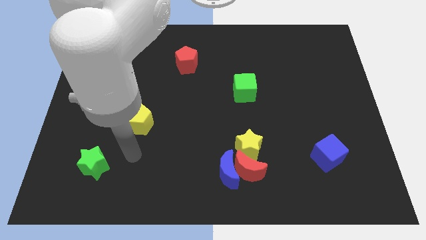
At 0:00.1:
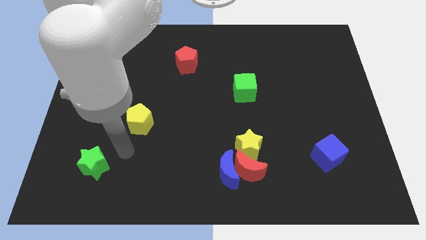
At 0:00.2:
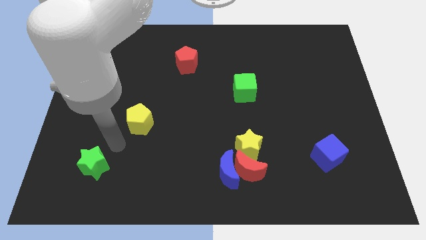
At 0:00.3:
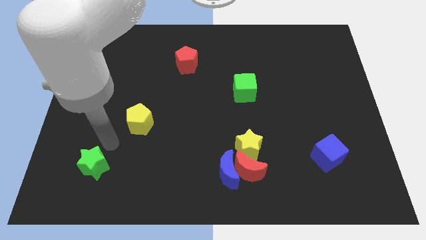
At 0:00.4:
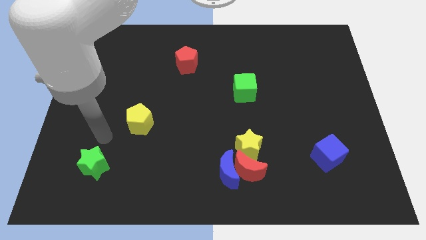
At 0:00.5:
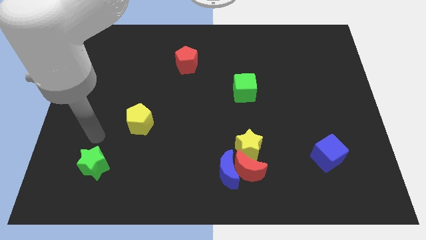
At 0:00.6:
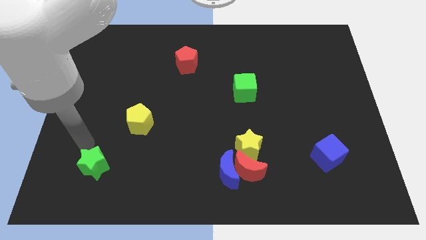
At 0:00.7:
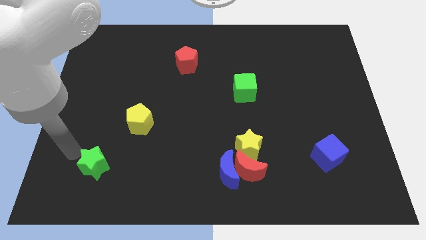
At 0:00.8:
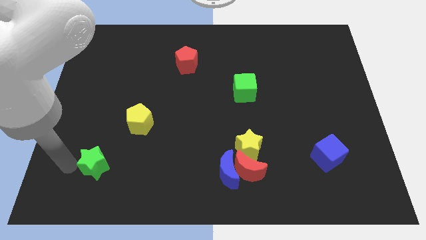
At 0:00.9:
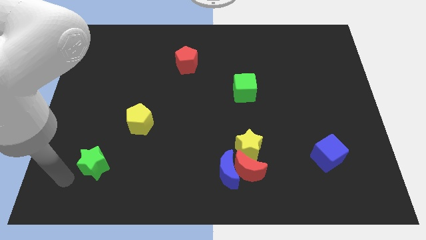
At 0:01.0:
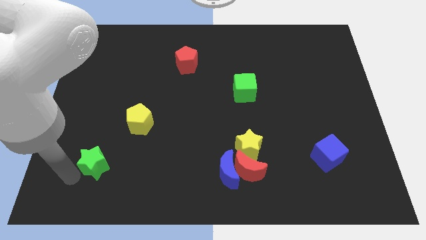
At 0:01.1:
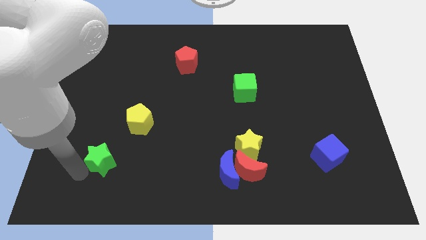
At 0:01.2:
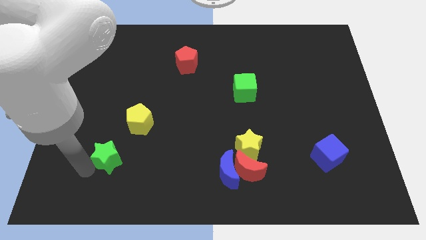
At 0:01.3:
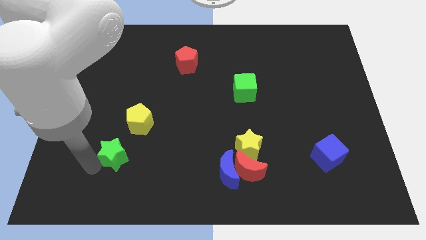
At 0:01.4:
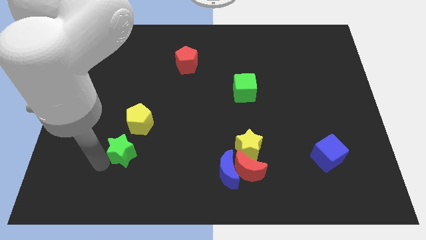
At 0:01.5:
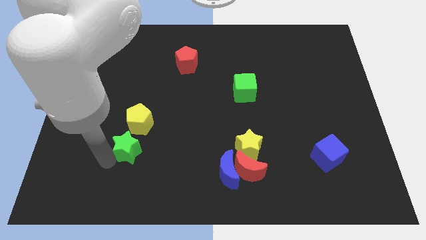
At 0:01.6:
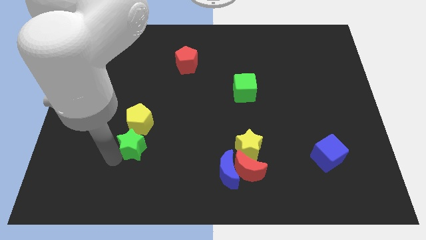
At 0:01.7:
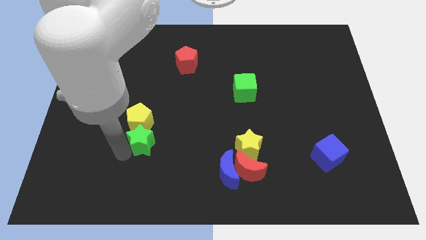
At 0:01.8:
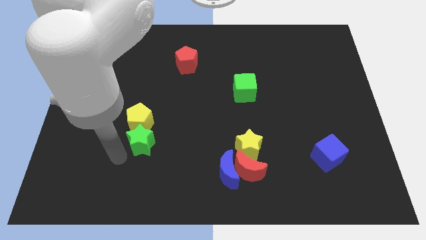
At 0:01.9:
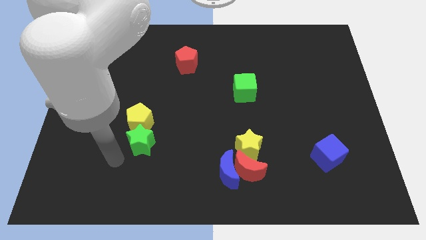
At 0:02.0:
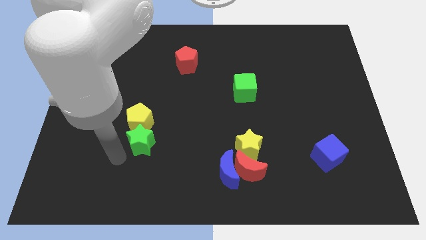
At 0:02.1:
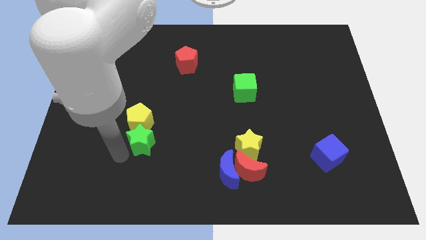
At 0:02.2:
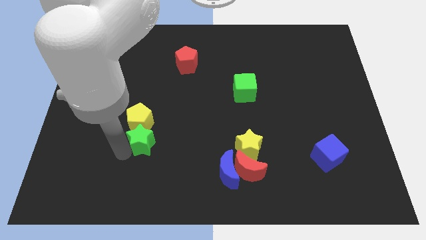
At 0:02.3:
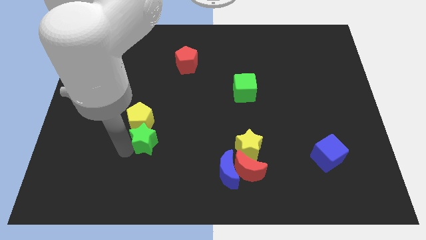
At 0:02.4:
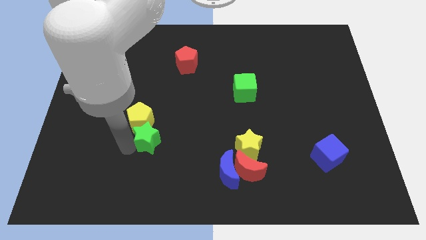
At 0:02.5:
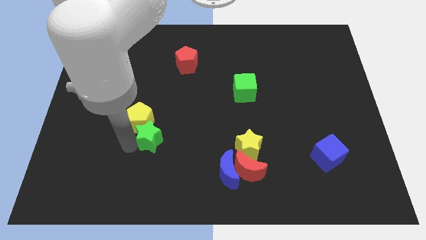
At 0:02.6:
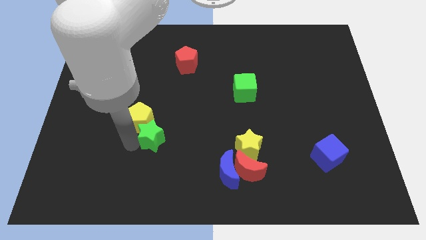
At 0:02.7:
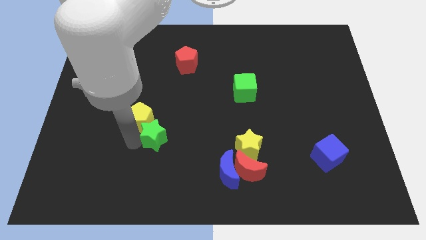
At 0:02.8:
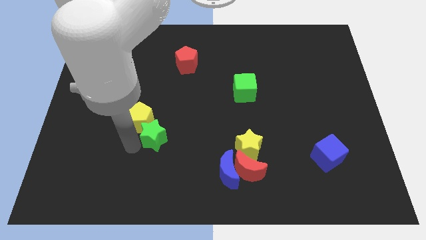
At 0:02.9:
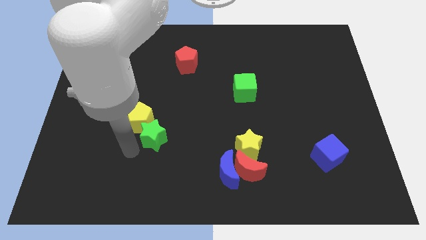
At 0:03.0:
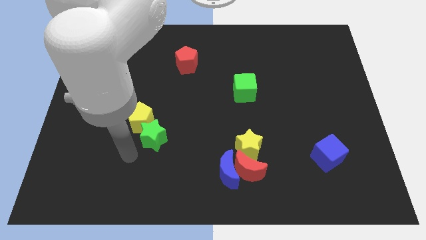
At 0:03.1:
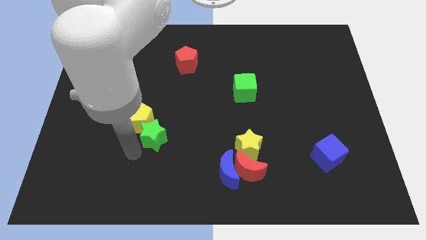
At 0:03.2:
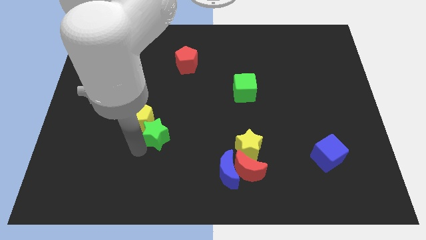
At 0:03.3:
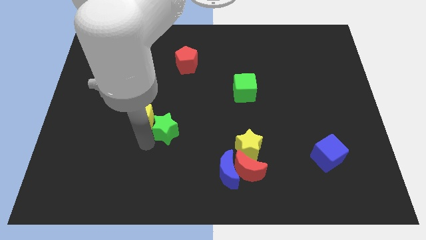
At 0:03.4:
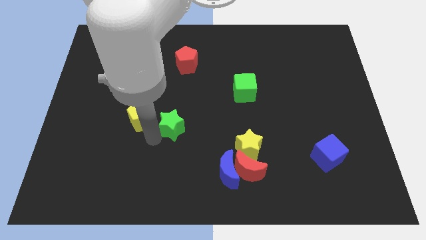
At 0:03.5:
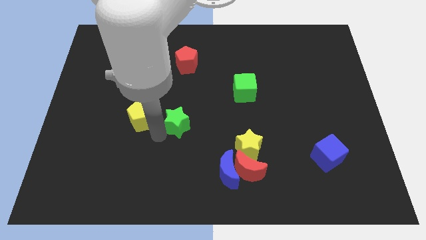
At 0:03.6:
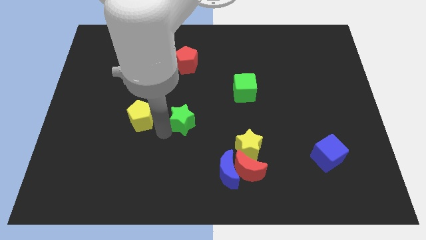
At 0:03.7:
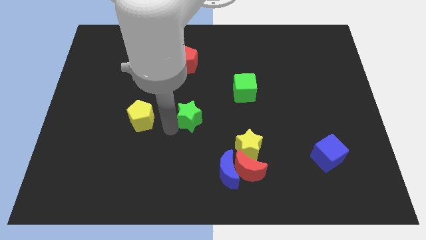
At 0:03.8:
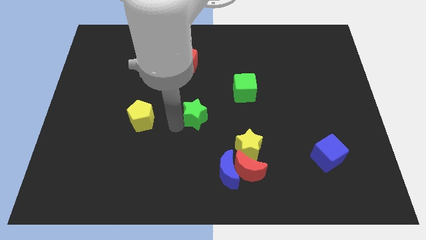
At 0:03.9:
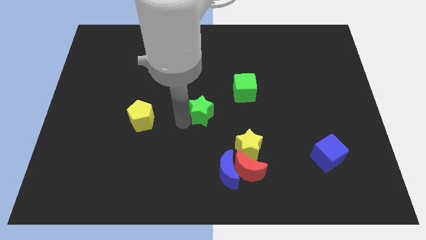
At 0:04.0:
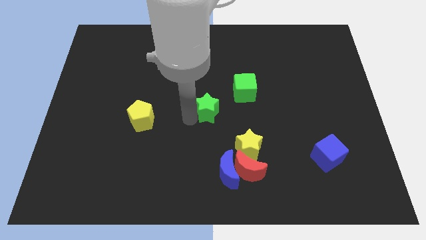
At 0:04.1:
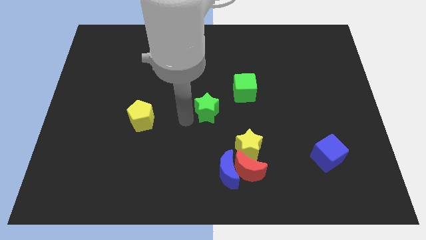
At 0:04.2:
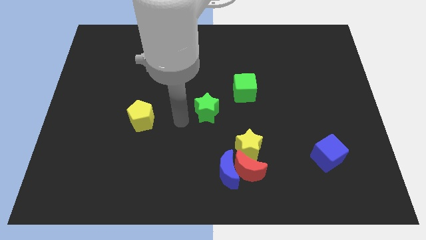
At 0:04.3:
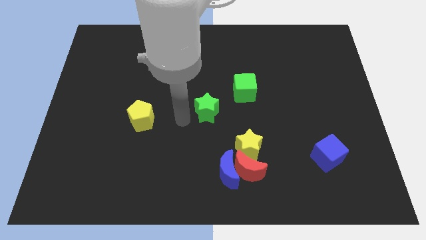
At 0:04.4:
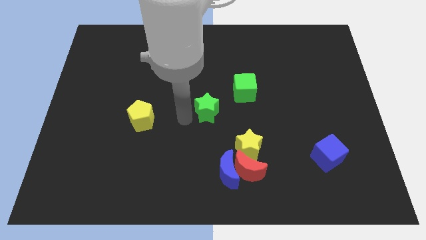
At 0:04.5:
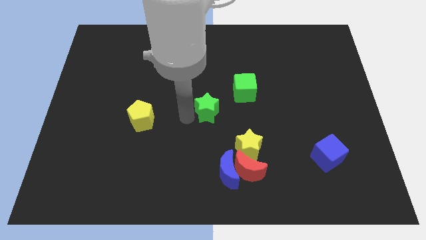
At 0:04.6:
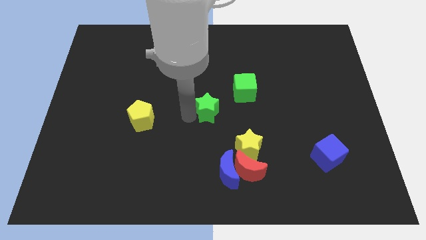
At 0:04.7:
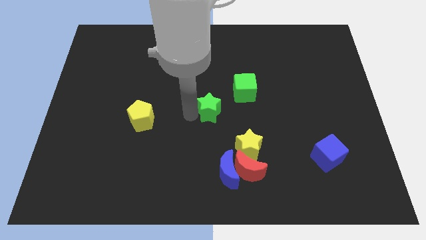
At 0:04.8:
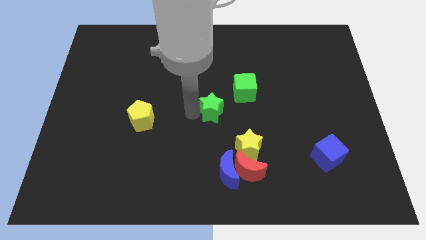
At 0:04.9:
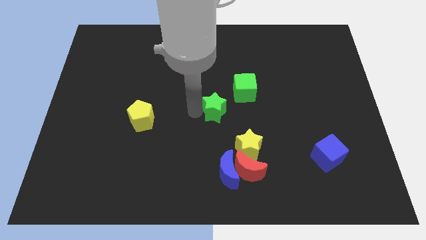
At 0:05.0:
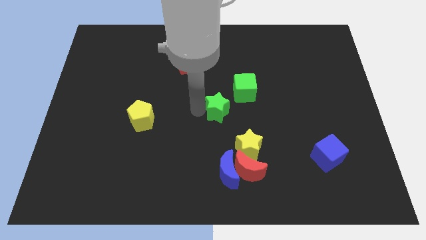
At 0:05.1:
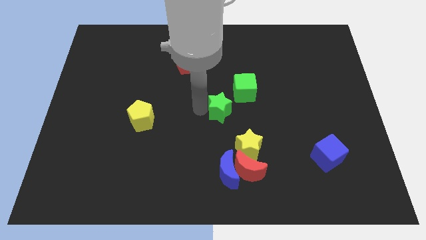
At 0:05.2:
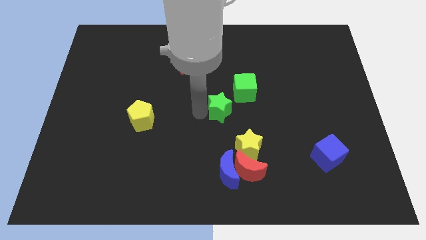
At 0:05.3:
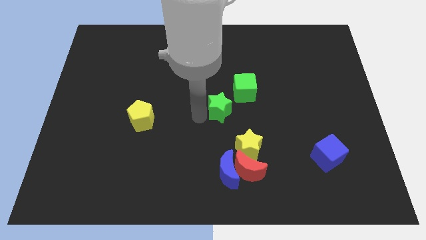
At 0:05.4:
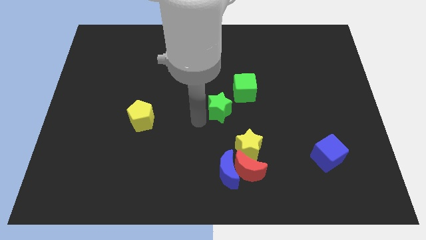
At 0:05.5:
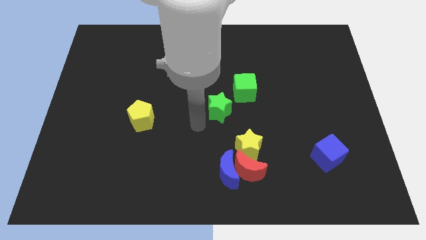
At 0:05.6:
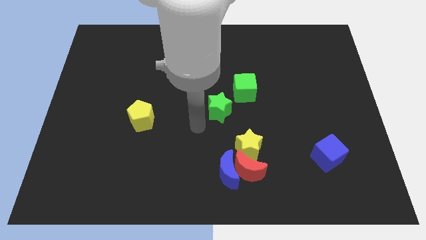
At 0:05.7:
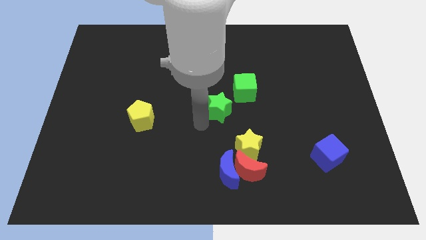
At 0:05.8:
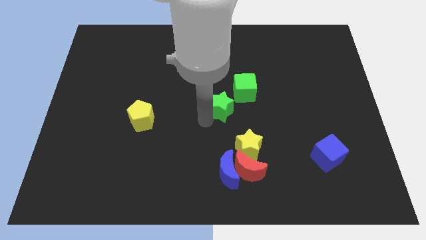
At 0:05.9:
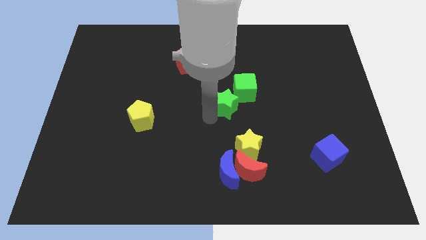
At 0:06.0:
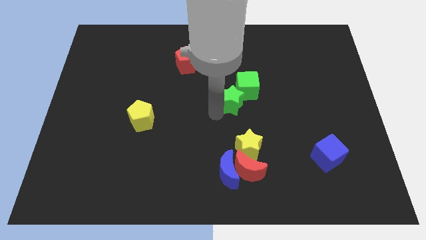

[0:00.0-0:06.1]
push the green star towards the green cube

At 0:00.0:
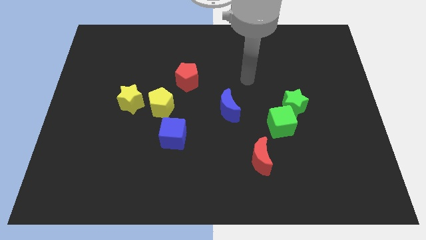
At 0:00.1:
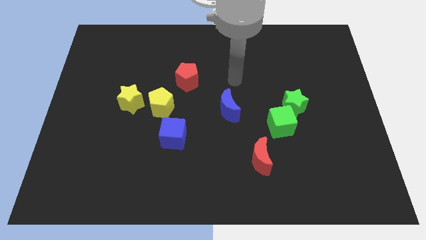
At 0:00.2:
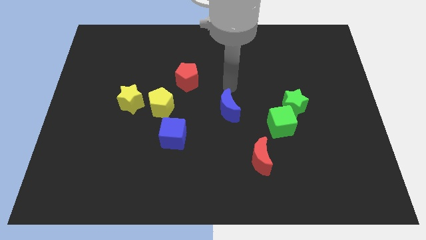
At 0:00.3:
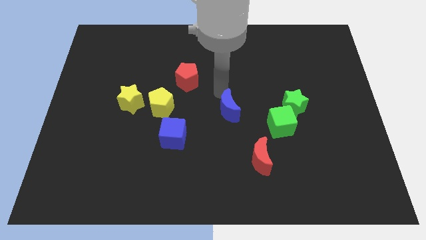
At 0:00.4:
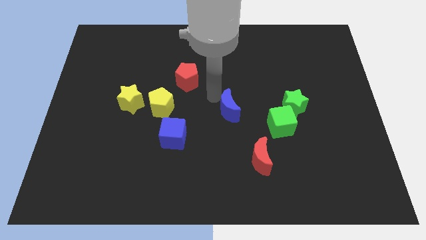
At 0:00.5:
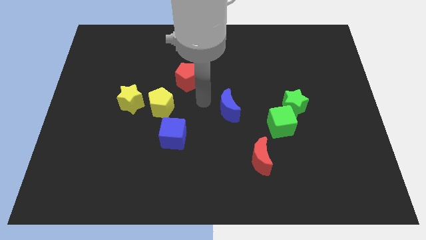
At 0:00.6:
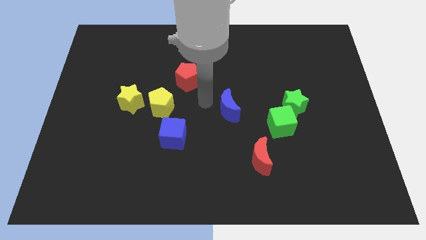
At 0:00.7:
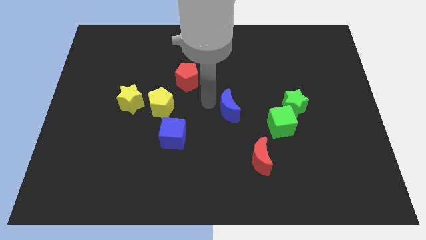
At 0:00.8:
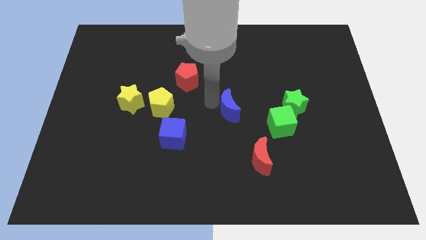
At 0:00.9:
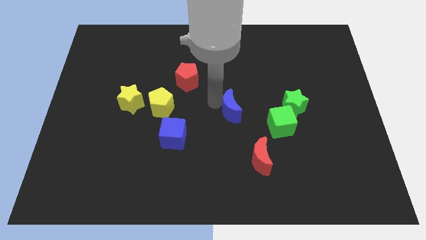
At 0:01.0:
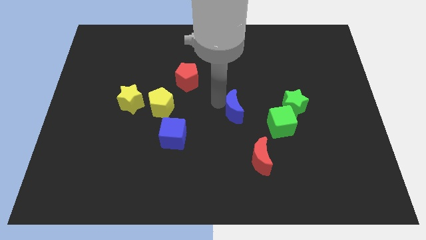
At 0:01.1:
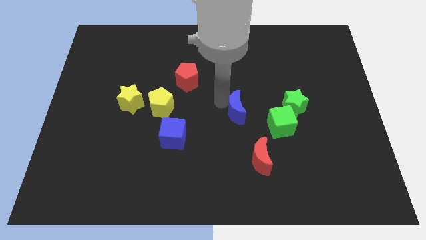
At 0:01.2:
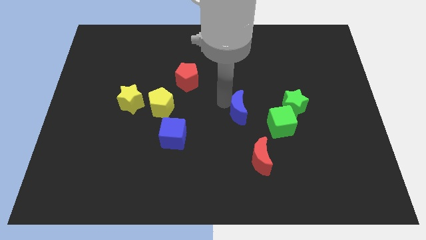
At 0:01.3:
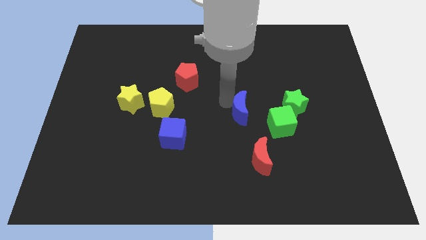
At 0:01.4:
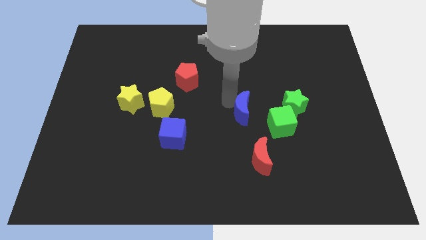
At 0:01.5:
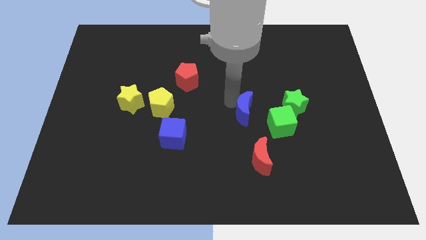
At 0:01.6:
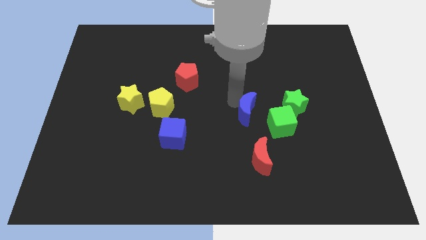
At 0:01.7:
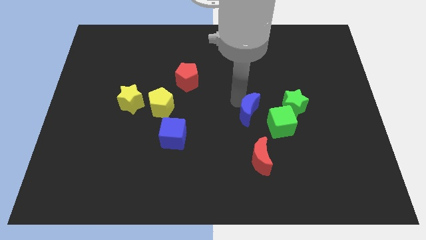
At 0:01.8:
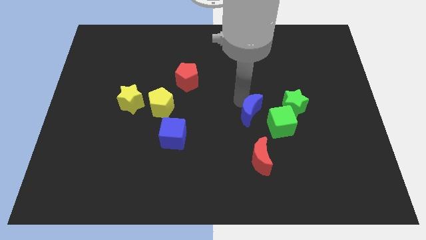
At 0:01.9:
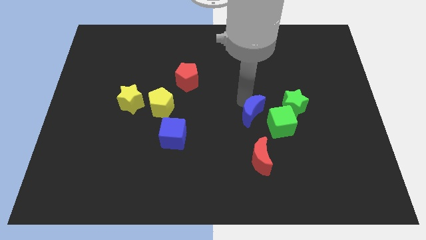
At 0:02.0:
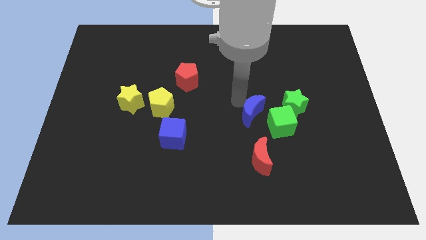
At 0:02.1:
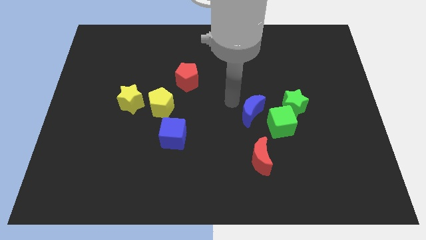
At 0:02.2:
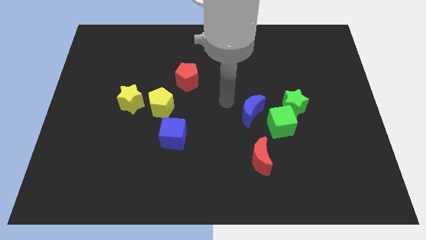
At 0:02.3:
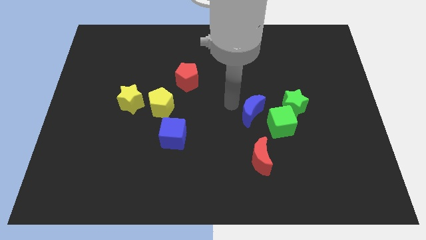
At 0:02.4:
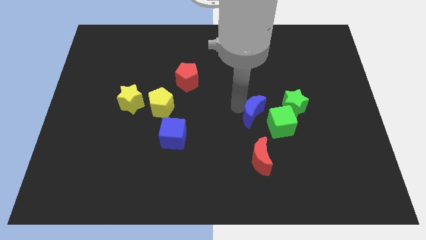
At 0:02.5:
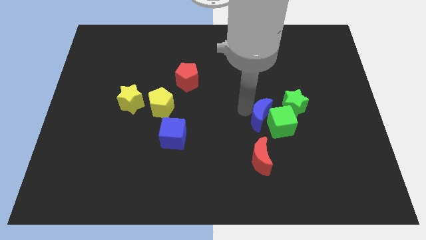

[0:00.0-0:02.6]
put the blue moon towards the green cube
